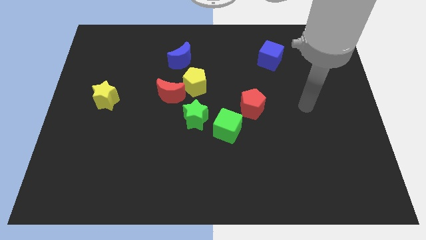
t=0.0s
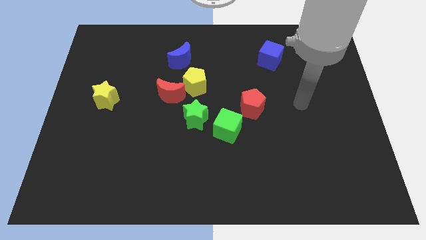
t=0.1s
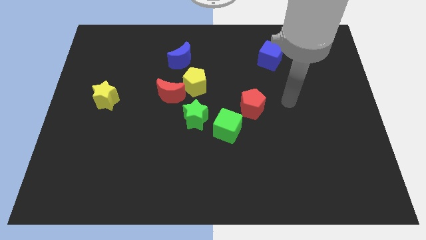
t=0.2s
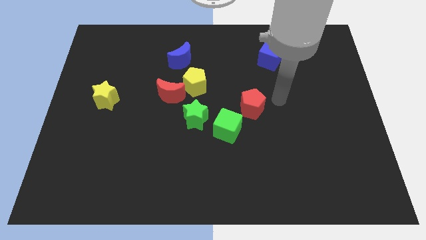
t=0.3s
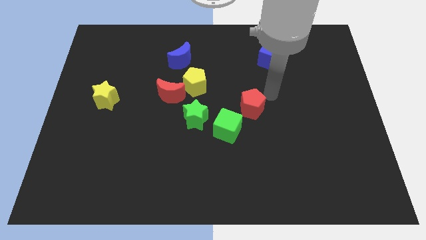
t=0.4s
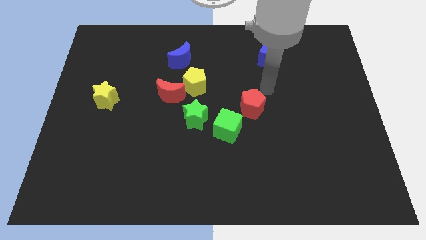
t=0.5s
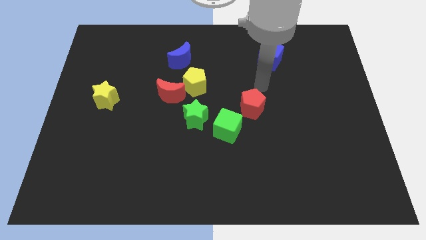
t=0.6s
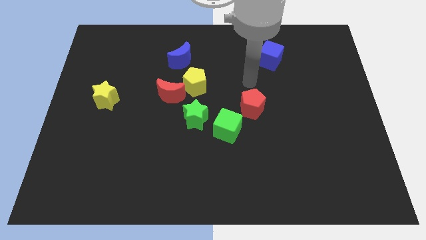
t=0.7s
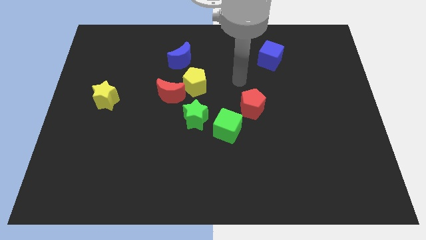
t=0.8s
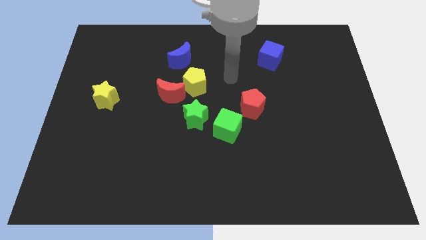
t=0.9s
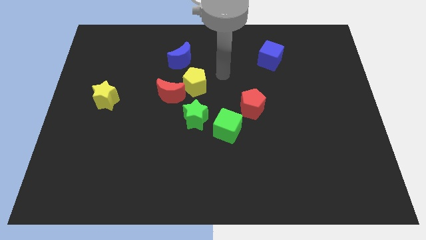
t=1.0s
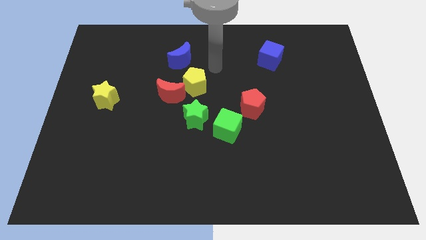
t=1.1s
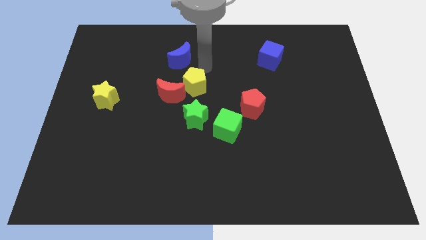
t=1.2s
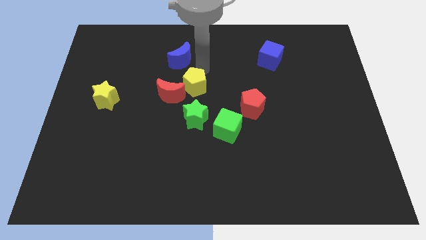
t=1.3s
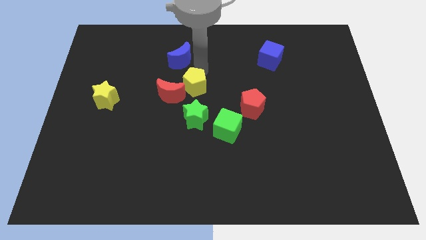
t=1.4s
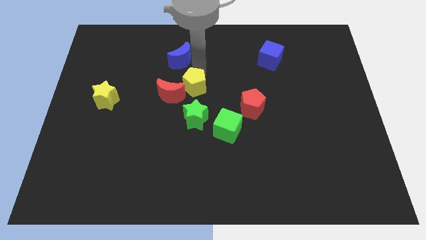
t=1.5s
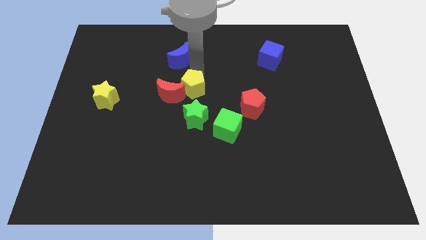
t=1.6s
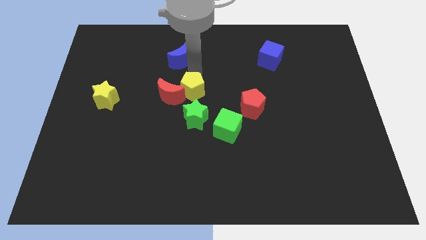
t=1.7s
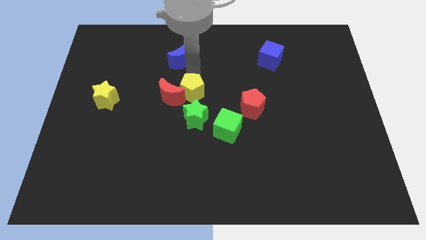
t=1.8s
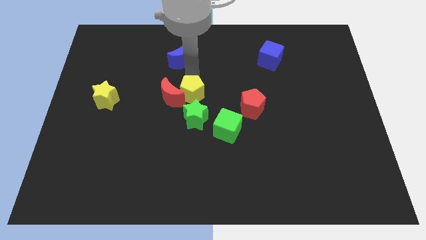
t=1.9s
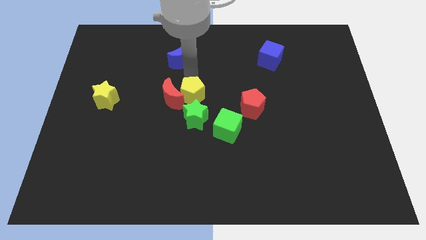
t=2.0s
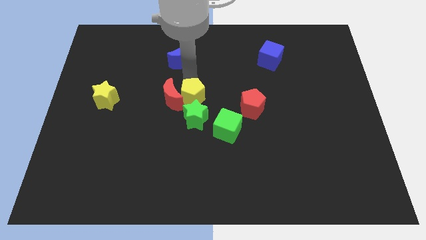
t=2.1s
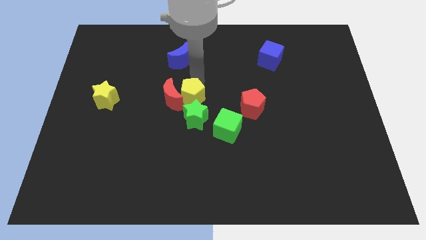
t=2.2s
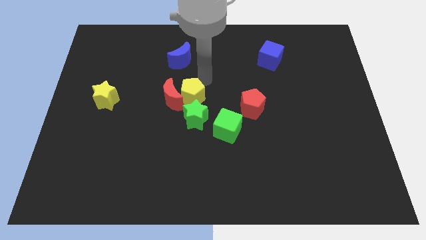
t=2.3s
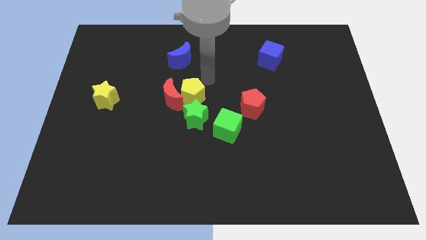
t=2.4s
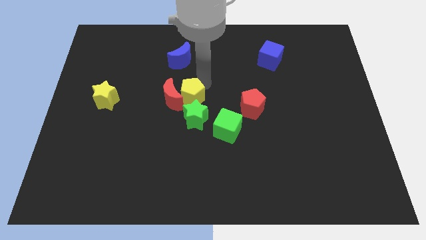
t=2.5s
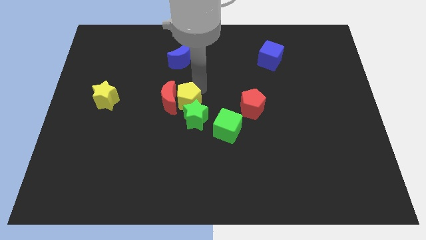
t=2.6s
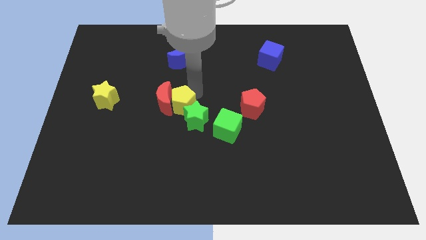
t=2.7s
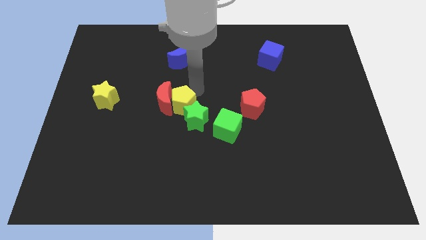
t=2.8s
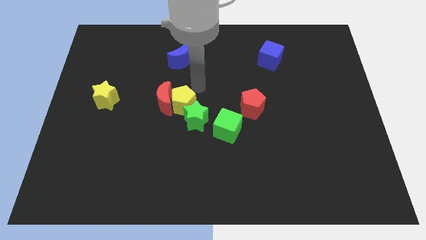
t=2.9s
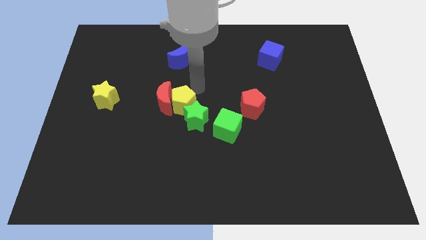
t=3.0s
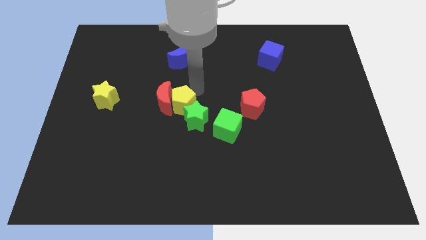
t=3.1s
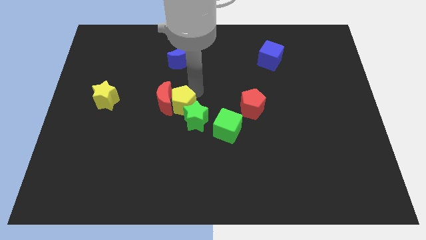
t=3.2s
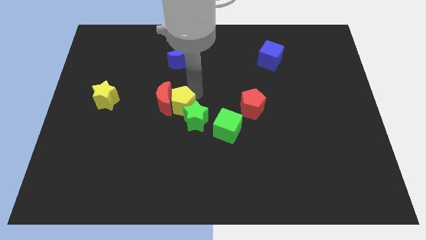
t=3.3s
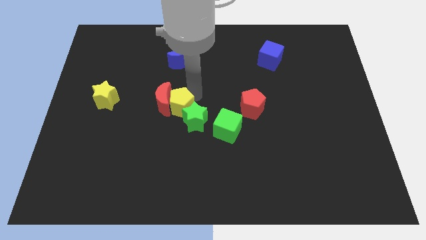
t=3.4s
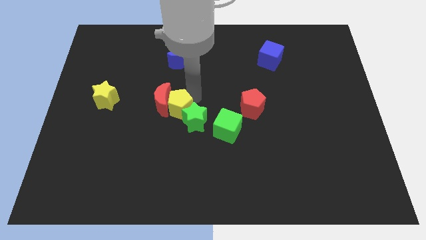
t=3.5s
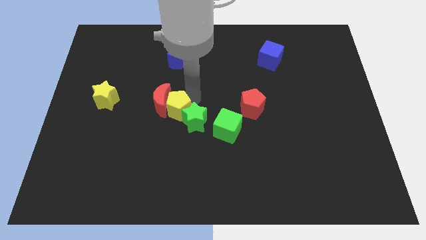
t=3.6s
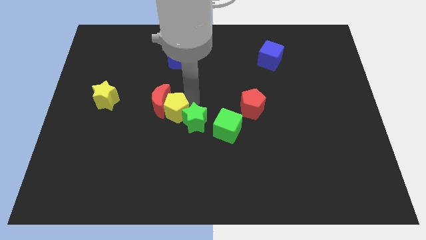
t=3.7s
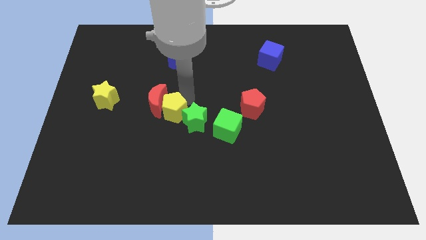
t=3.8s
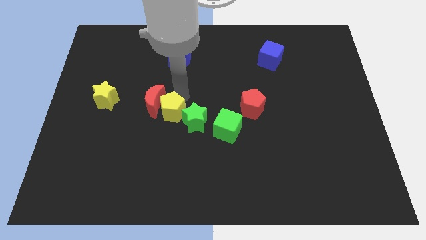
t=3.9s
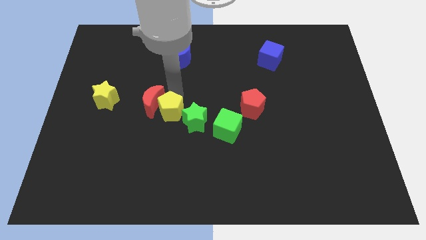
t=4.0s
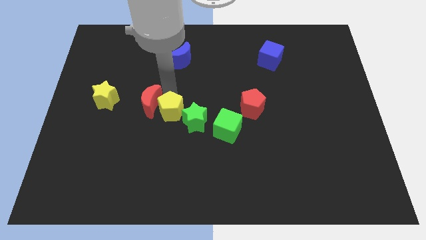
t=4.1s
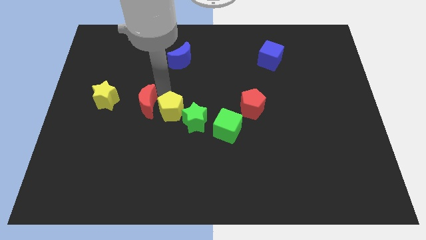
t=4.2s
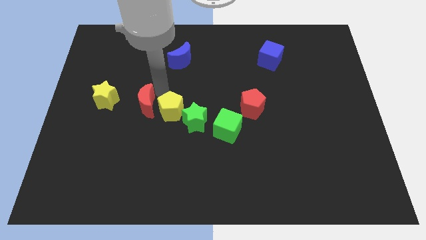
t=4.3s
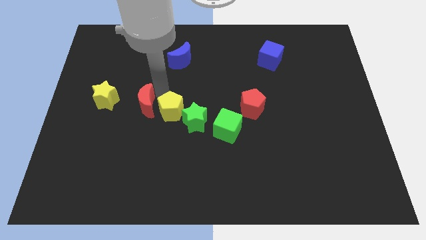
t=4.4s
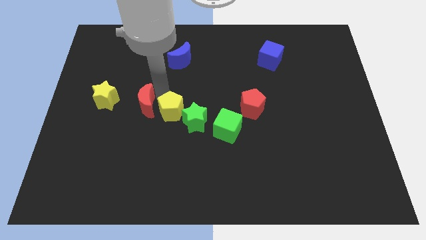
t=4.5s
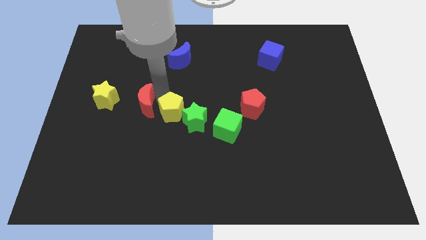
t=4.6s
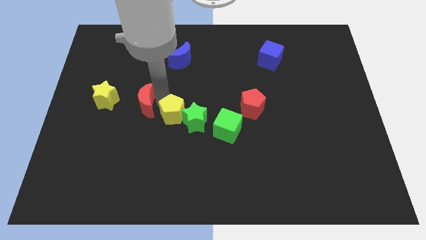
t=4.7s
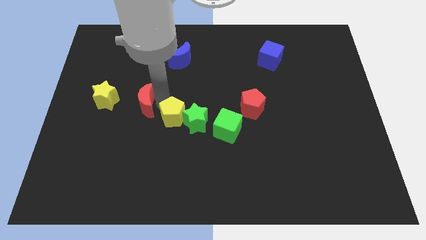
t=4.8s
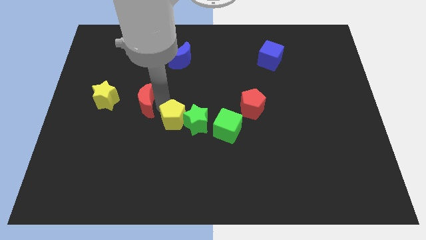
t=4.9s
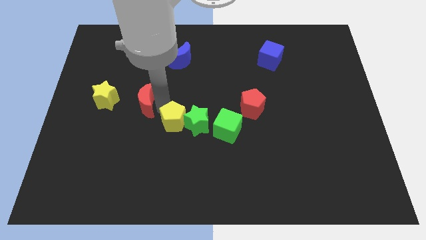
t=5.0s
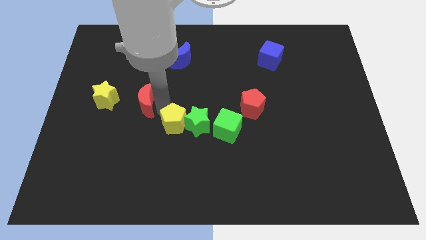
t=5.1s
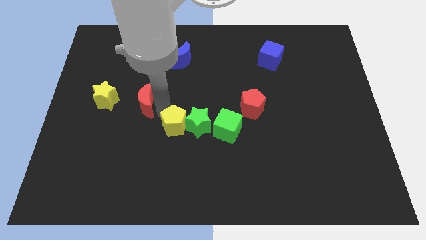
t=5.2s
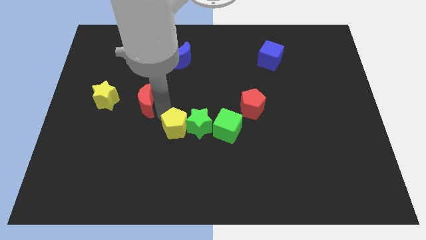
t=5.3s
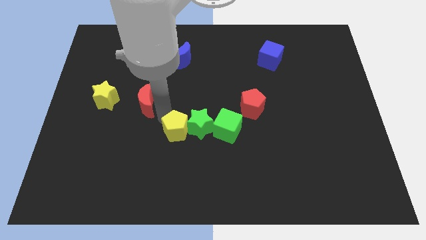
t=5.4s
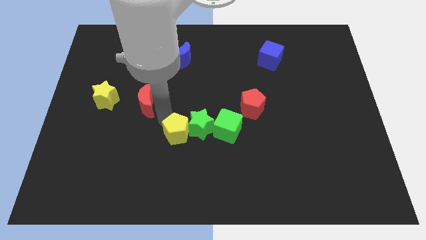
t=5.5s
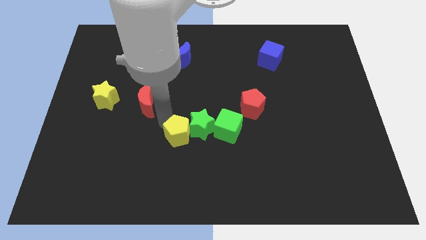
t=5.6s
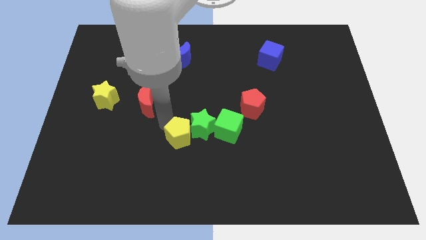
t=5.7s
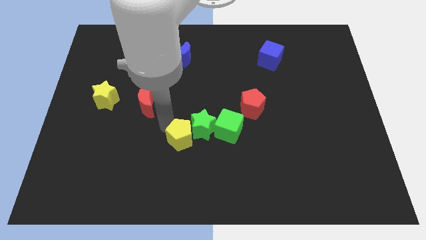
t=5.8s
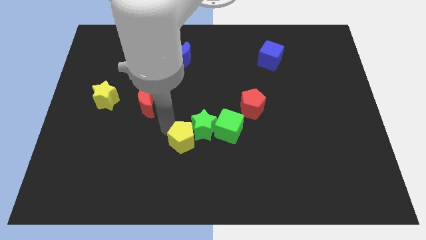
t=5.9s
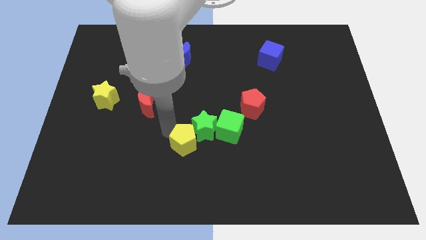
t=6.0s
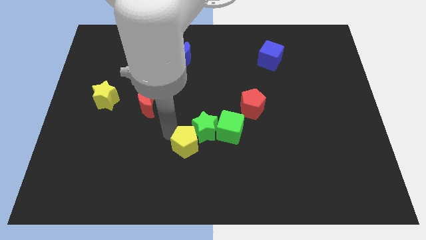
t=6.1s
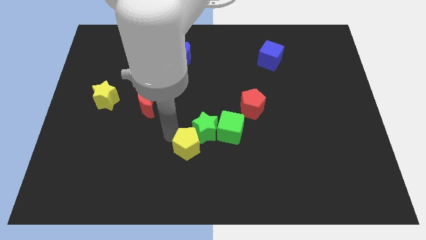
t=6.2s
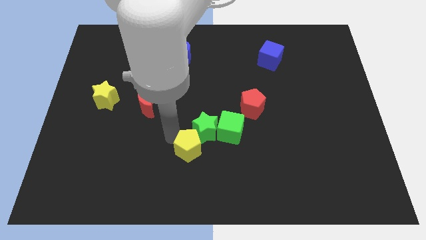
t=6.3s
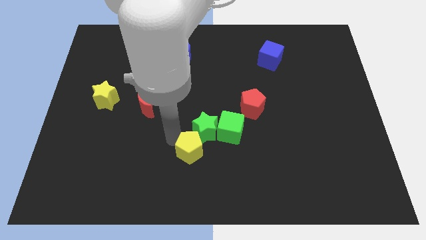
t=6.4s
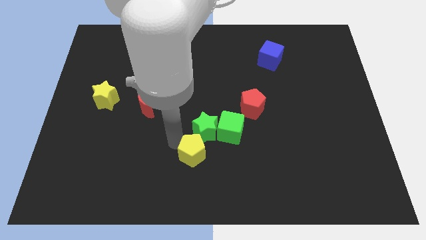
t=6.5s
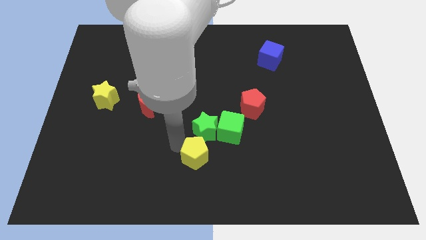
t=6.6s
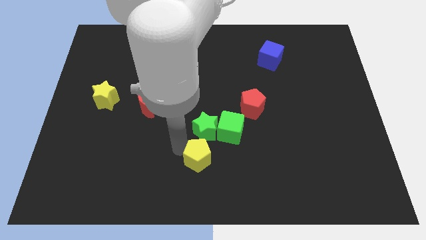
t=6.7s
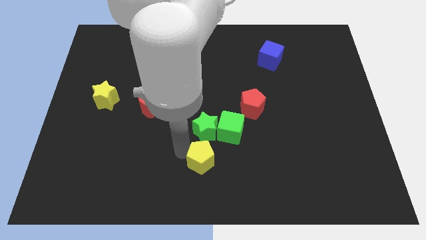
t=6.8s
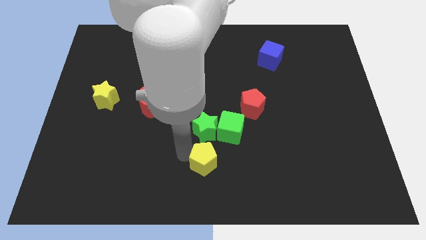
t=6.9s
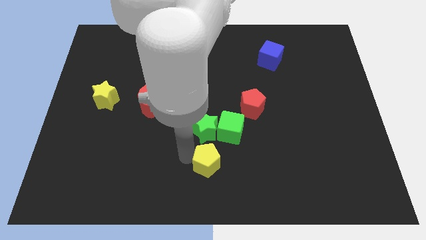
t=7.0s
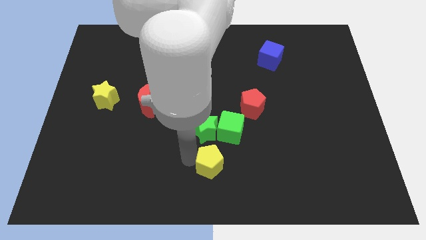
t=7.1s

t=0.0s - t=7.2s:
slide the yellow pentagon below the green cube

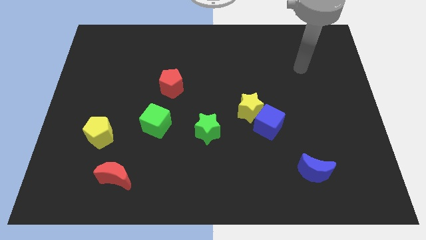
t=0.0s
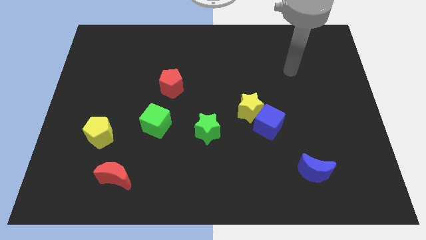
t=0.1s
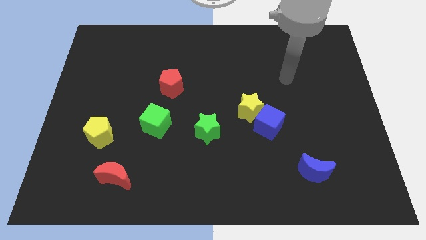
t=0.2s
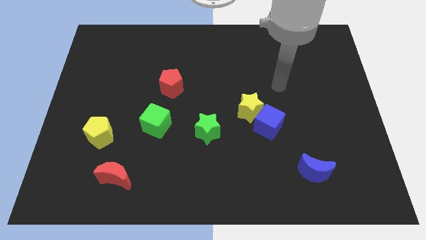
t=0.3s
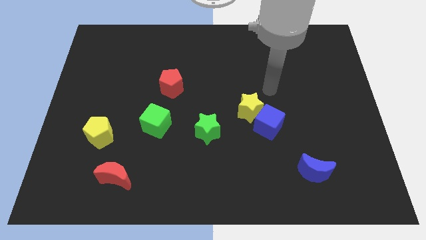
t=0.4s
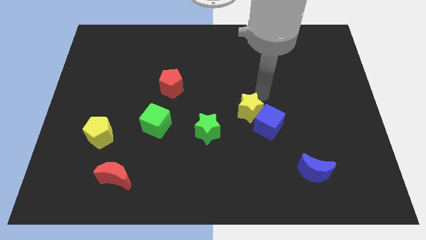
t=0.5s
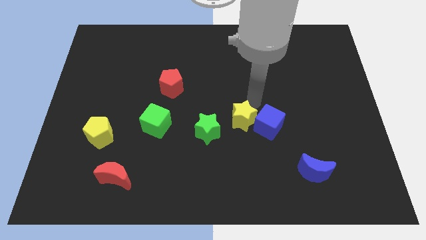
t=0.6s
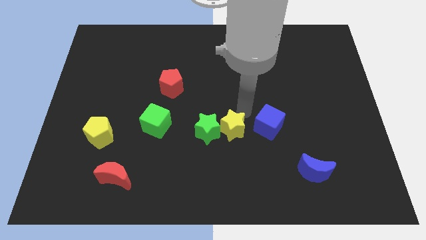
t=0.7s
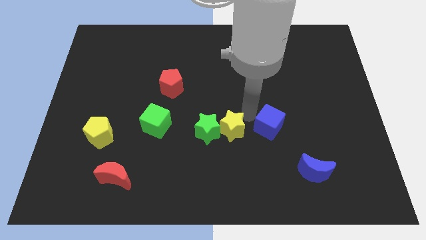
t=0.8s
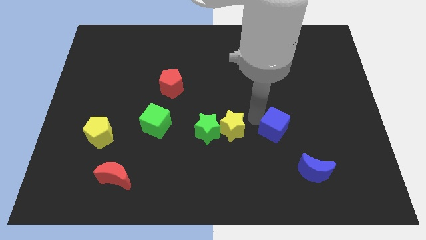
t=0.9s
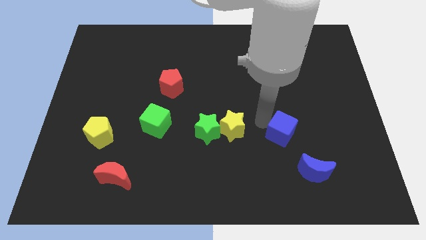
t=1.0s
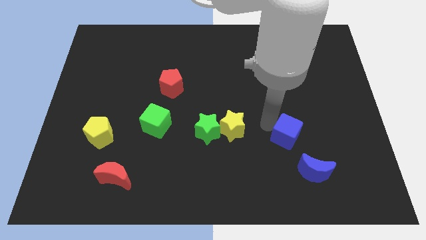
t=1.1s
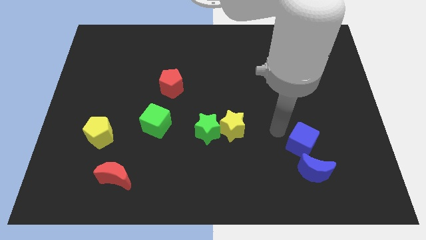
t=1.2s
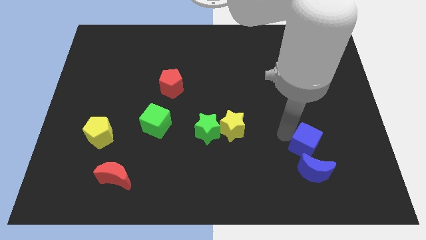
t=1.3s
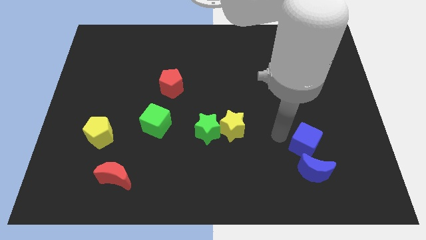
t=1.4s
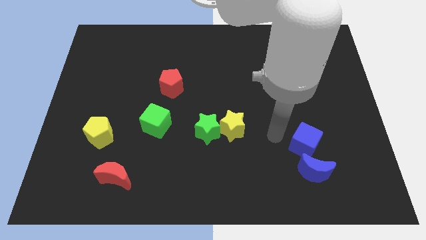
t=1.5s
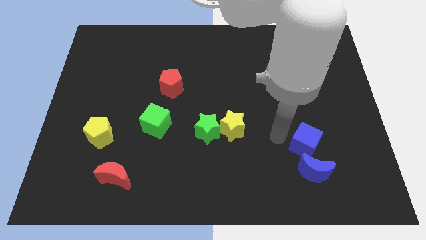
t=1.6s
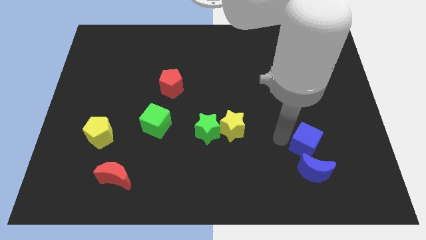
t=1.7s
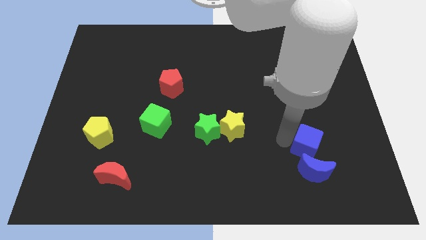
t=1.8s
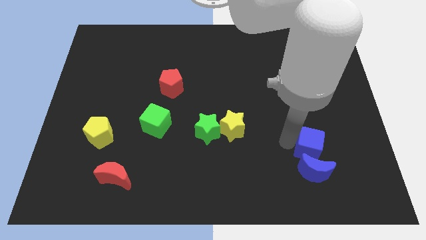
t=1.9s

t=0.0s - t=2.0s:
move the blue cube to the top right side of the blue moon
